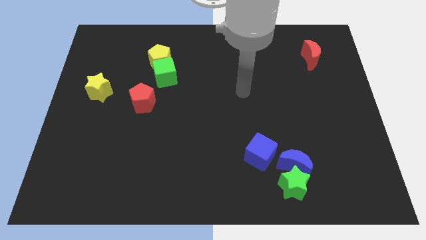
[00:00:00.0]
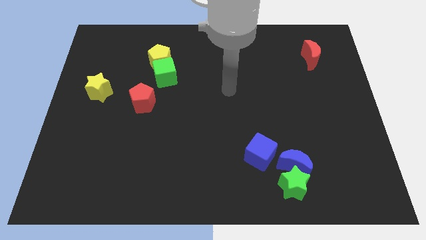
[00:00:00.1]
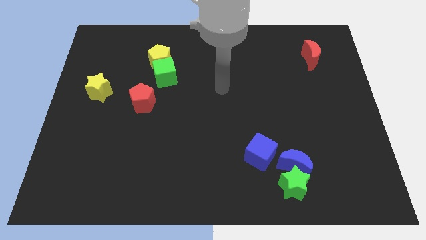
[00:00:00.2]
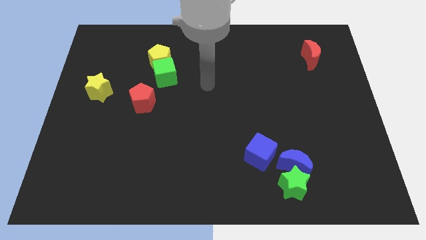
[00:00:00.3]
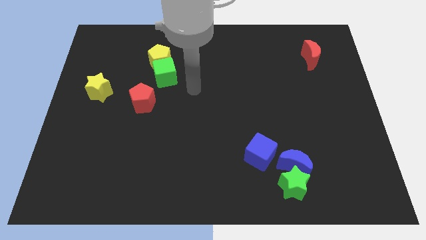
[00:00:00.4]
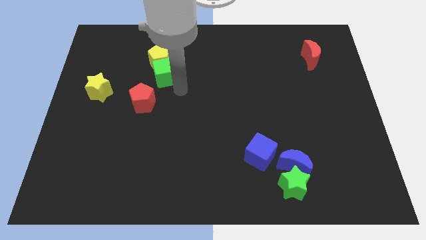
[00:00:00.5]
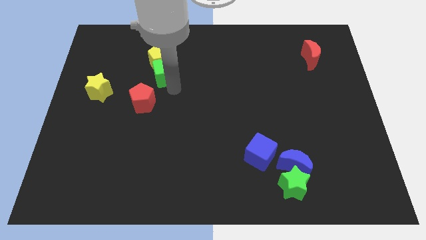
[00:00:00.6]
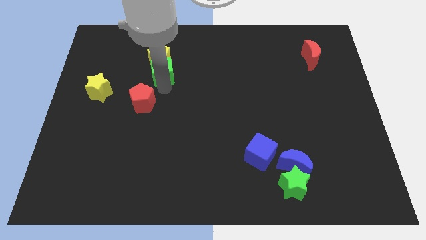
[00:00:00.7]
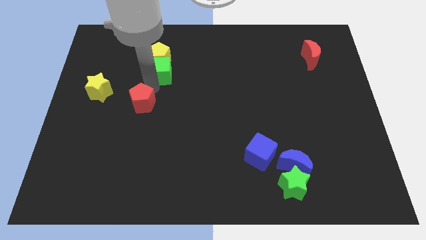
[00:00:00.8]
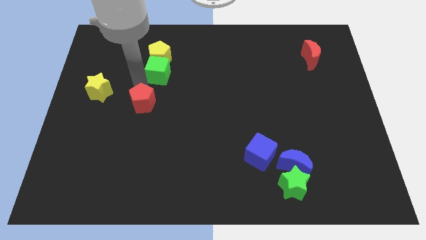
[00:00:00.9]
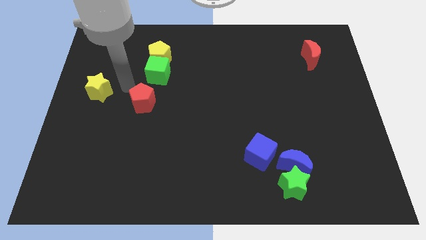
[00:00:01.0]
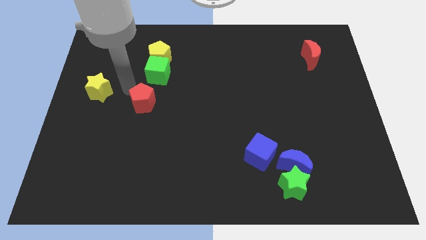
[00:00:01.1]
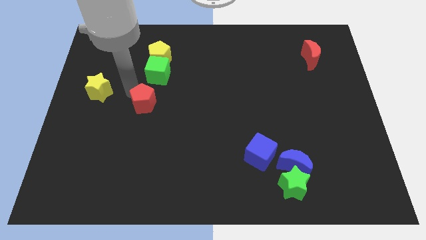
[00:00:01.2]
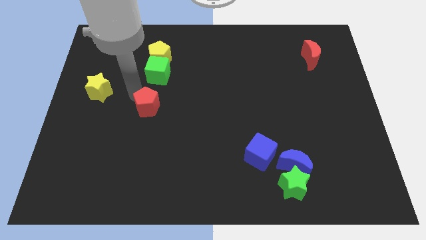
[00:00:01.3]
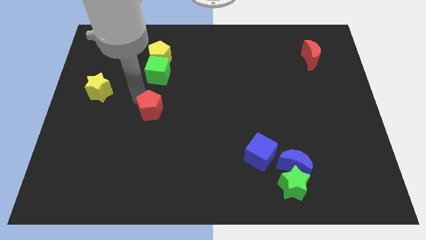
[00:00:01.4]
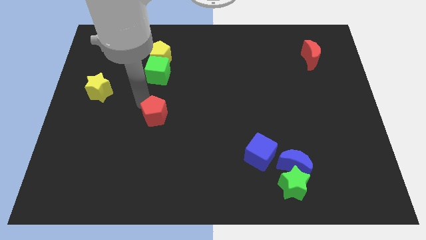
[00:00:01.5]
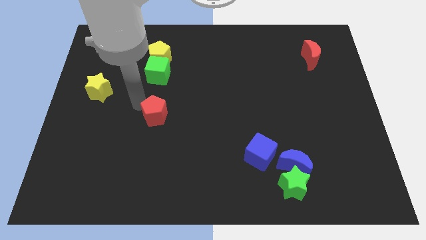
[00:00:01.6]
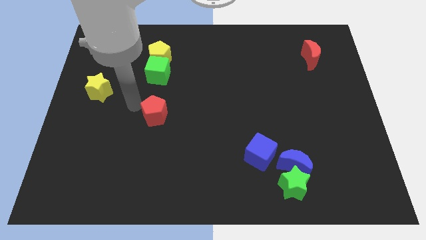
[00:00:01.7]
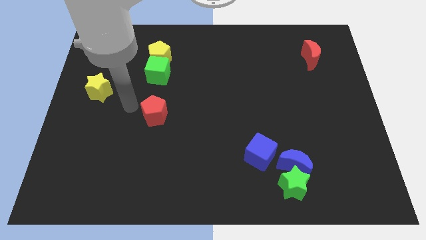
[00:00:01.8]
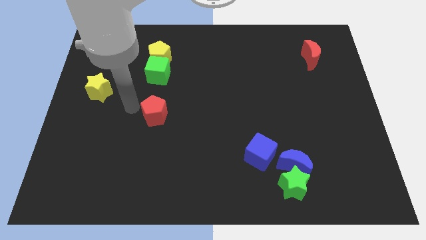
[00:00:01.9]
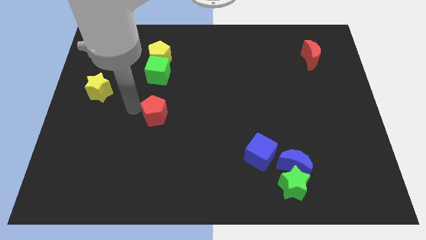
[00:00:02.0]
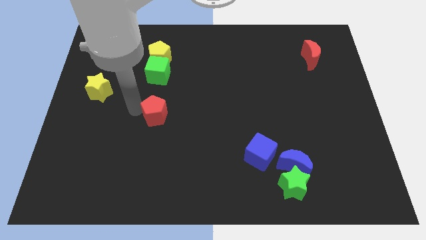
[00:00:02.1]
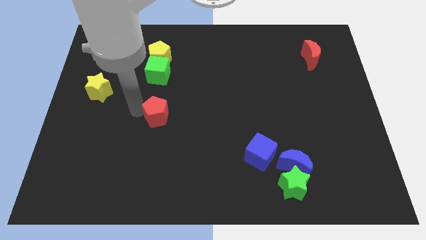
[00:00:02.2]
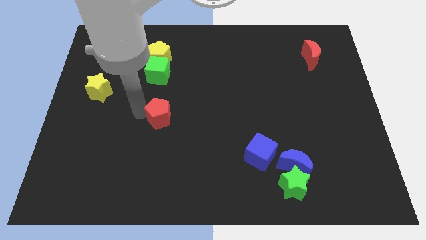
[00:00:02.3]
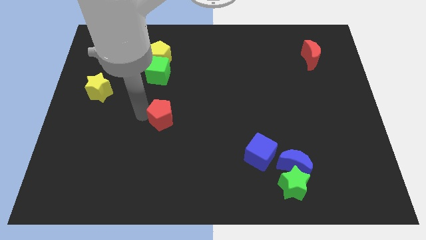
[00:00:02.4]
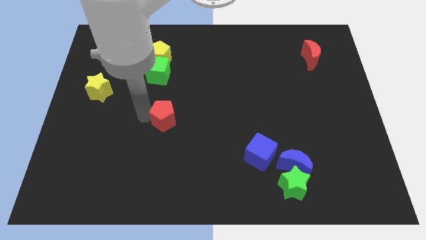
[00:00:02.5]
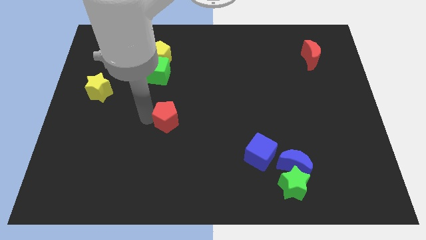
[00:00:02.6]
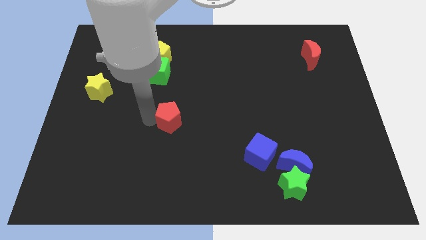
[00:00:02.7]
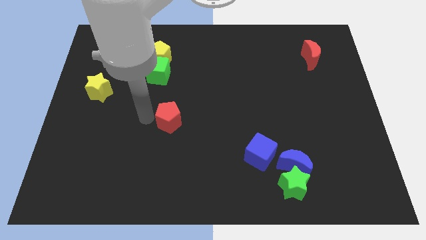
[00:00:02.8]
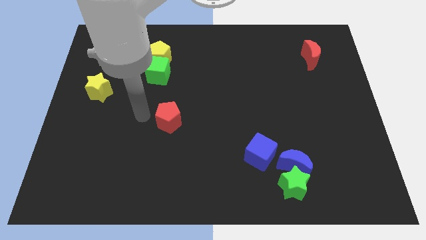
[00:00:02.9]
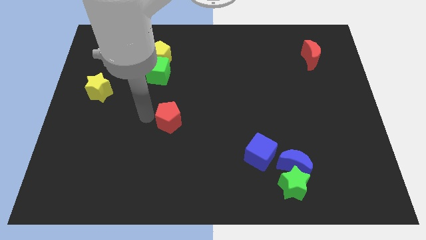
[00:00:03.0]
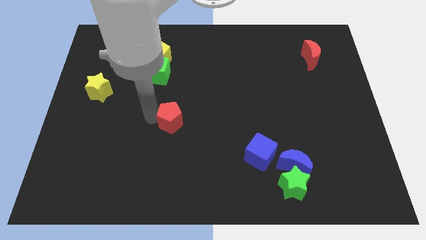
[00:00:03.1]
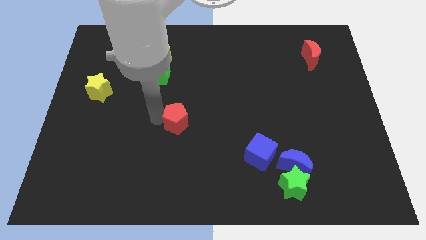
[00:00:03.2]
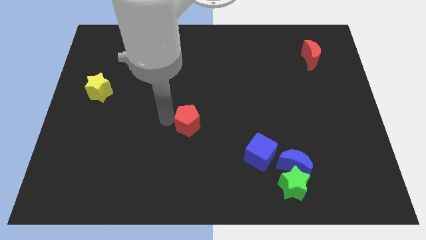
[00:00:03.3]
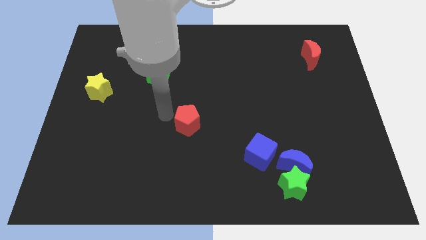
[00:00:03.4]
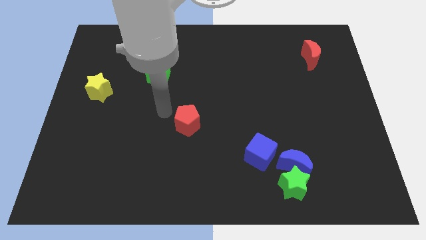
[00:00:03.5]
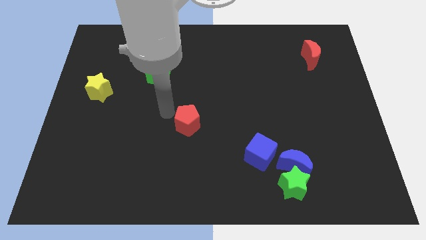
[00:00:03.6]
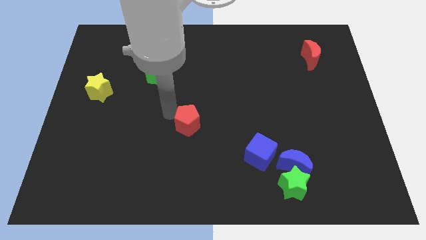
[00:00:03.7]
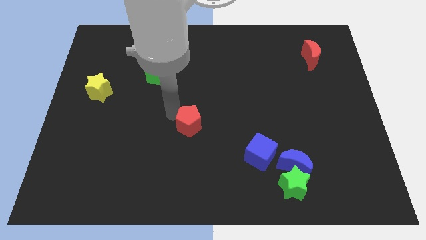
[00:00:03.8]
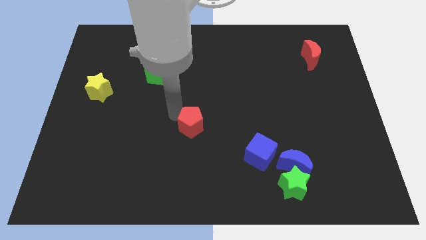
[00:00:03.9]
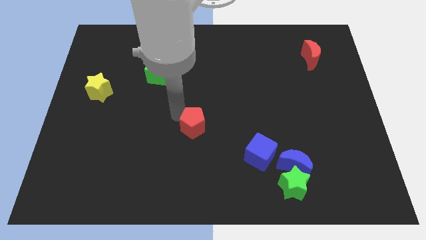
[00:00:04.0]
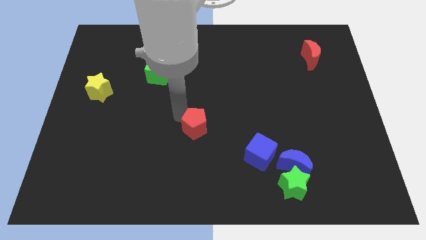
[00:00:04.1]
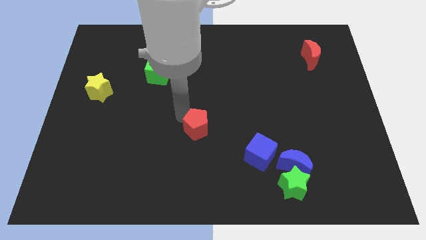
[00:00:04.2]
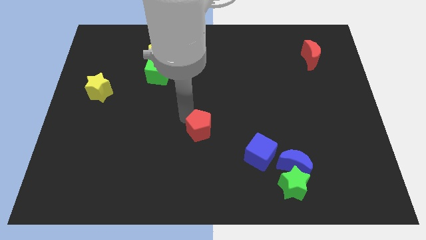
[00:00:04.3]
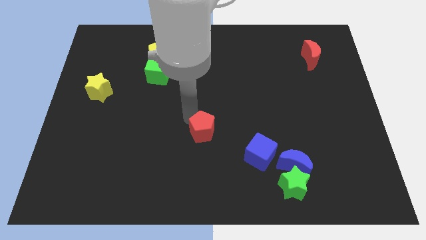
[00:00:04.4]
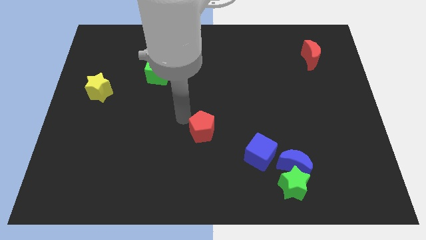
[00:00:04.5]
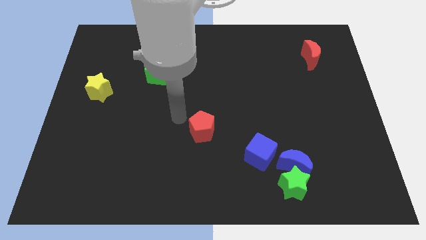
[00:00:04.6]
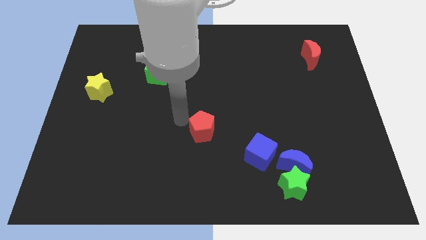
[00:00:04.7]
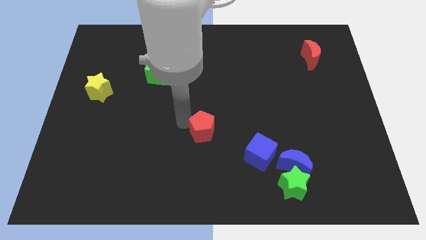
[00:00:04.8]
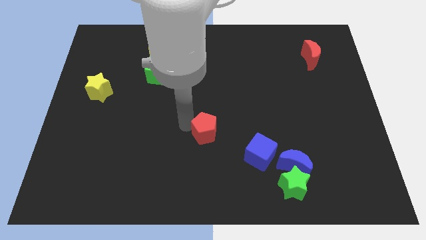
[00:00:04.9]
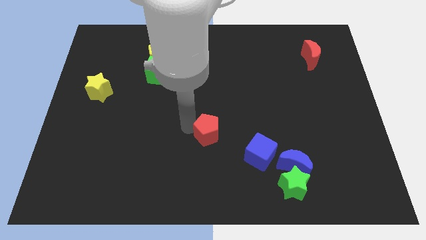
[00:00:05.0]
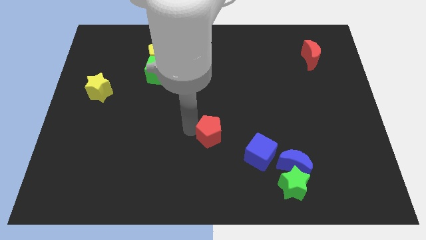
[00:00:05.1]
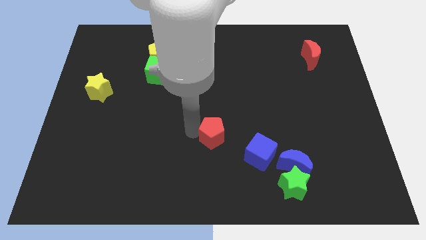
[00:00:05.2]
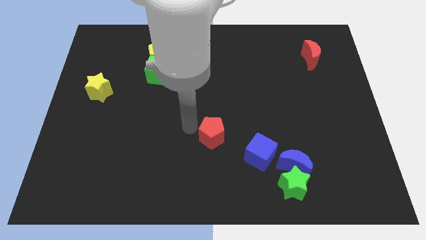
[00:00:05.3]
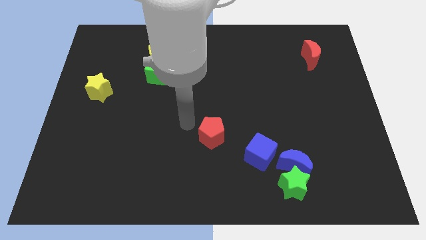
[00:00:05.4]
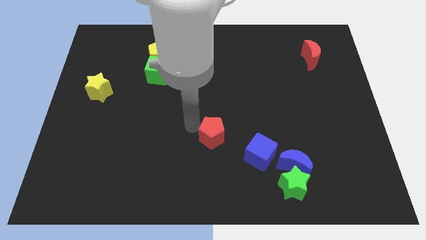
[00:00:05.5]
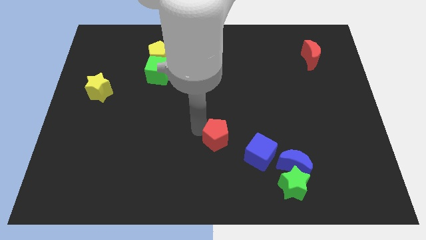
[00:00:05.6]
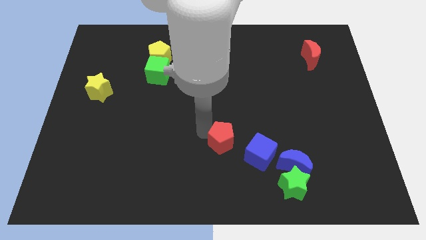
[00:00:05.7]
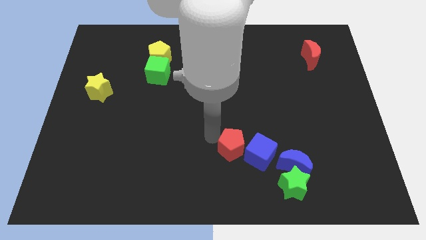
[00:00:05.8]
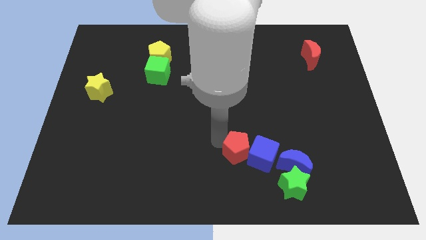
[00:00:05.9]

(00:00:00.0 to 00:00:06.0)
move the red pentagon close to the blue cube
